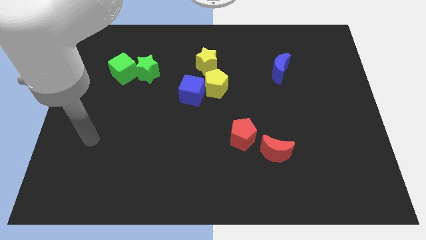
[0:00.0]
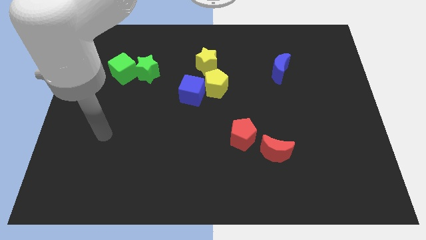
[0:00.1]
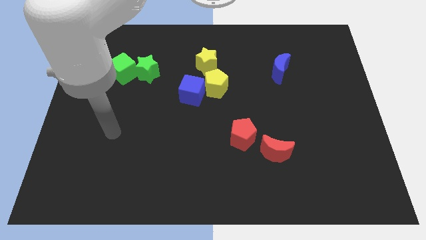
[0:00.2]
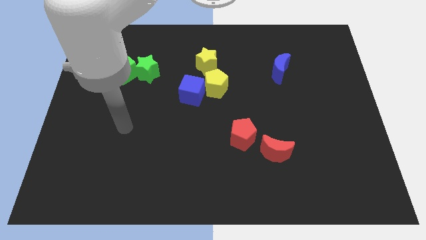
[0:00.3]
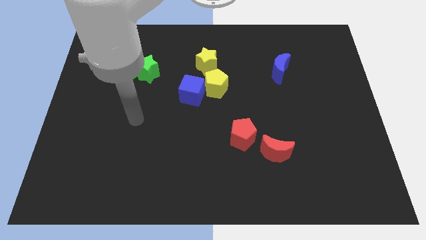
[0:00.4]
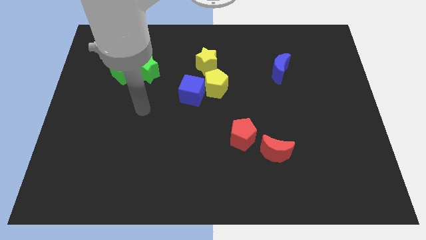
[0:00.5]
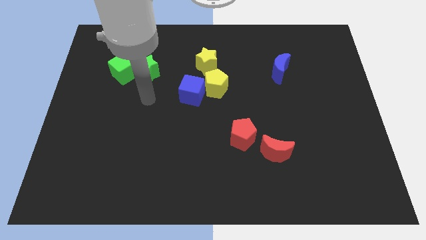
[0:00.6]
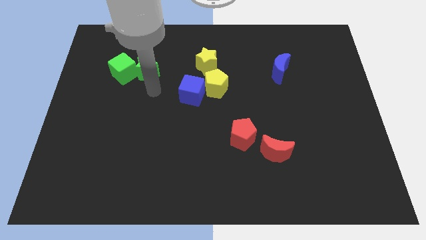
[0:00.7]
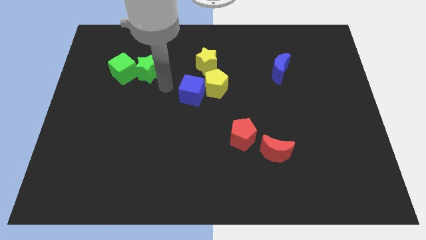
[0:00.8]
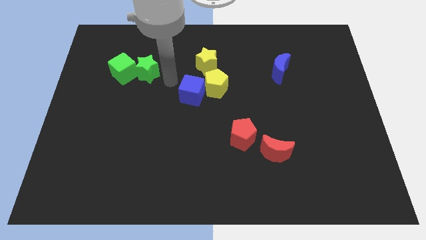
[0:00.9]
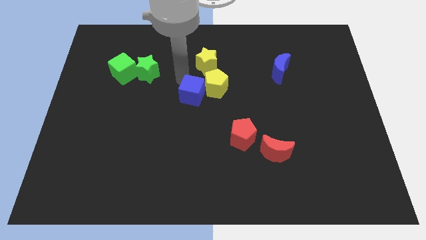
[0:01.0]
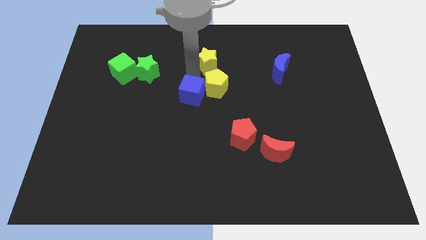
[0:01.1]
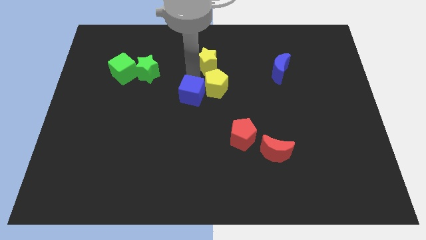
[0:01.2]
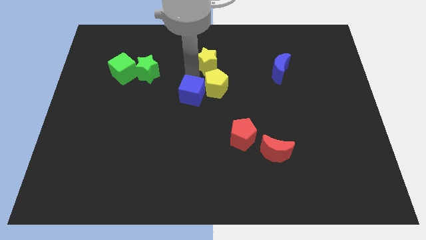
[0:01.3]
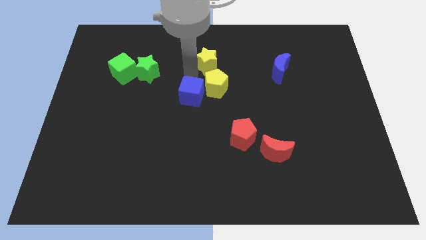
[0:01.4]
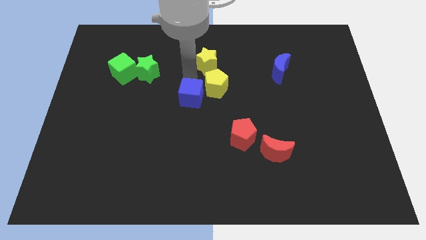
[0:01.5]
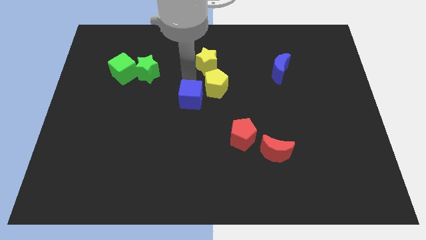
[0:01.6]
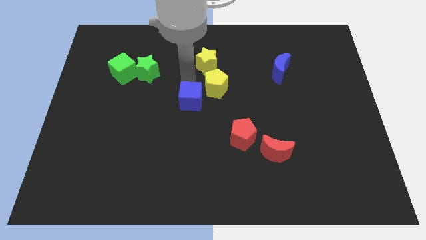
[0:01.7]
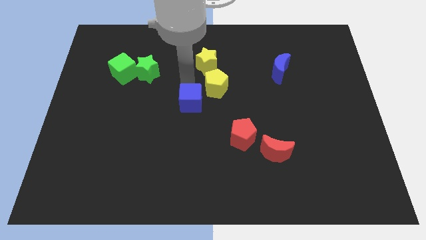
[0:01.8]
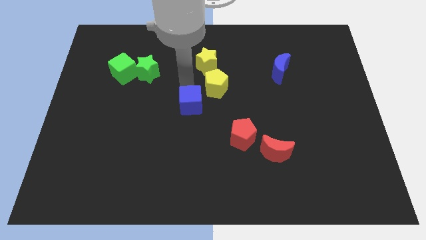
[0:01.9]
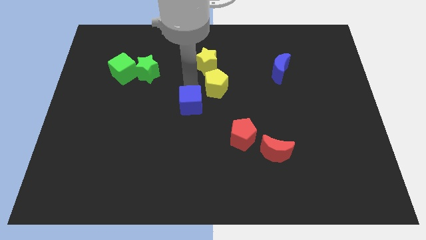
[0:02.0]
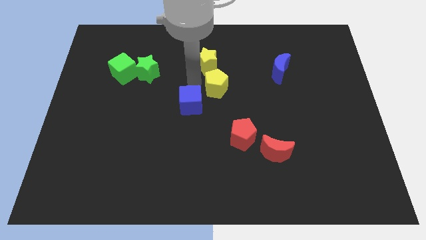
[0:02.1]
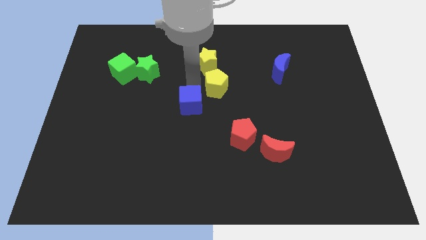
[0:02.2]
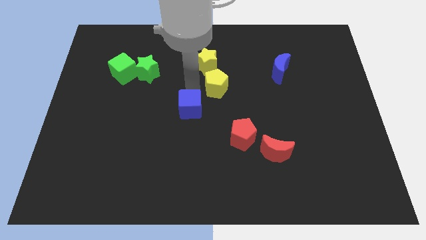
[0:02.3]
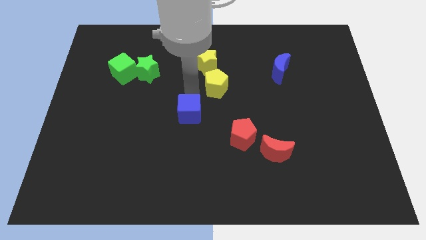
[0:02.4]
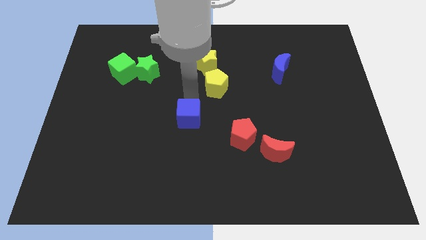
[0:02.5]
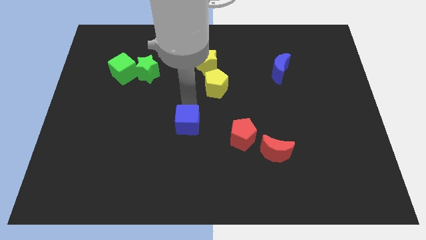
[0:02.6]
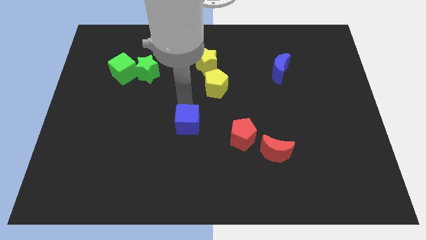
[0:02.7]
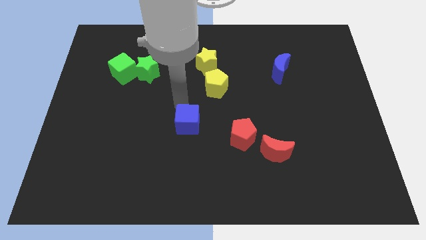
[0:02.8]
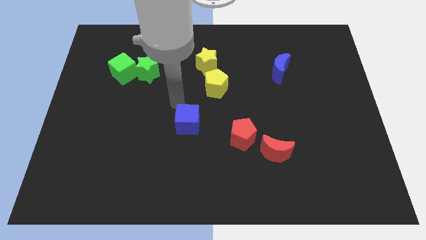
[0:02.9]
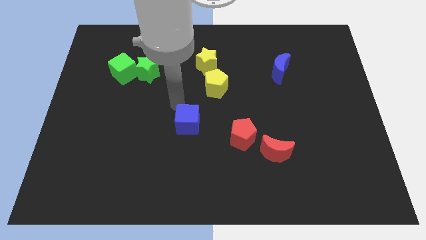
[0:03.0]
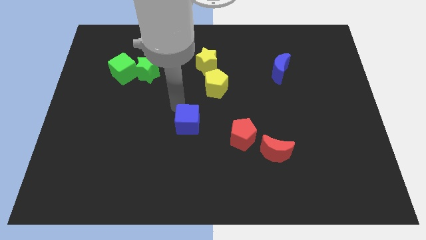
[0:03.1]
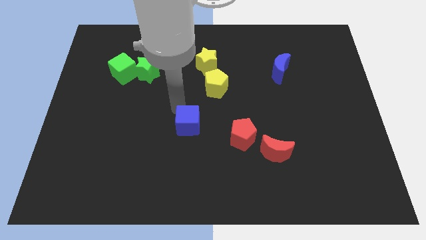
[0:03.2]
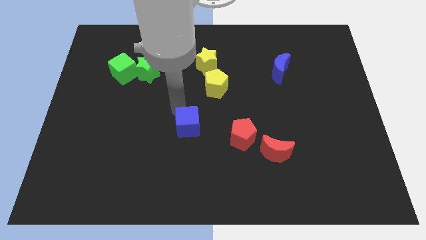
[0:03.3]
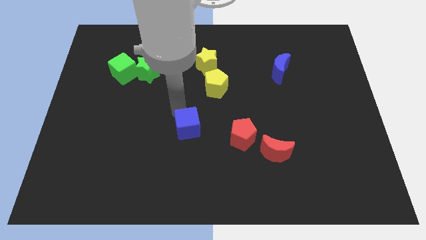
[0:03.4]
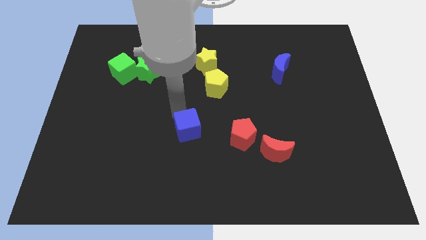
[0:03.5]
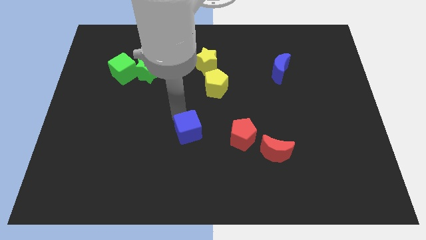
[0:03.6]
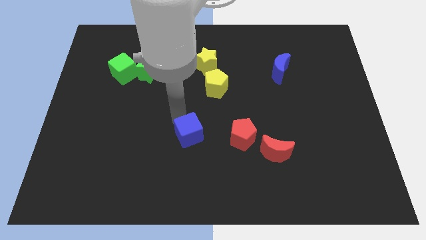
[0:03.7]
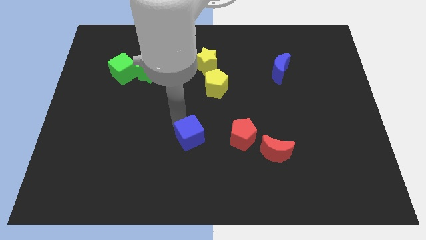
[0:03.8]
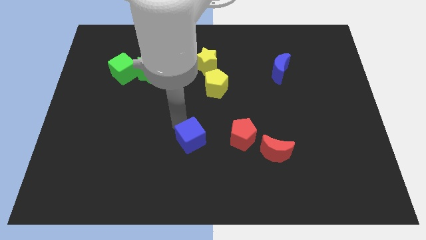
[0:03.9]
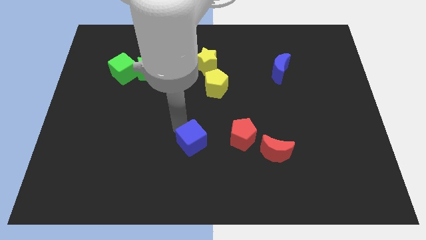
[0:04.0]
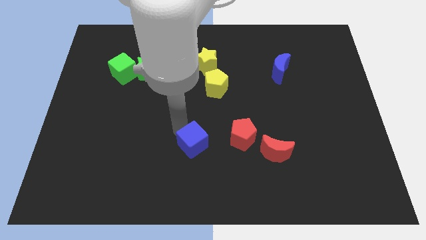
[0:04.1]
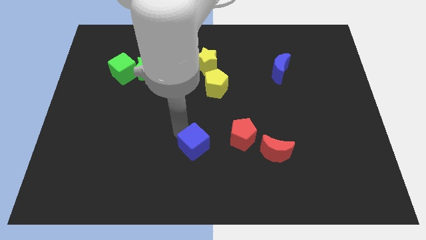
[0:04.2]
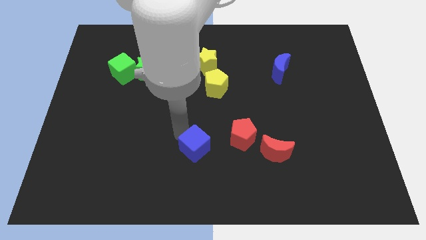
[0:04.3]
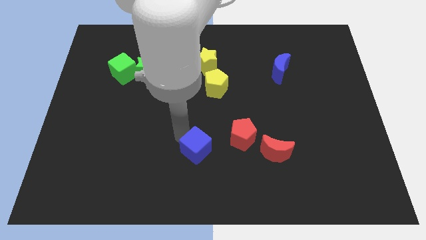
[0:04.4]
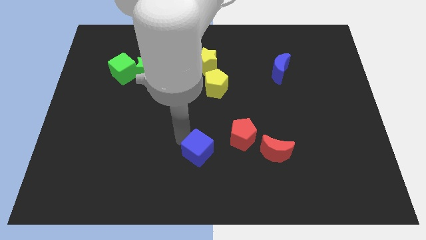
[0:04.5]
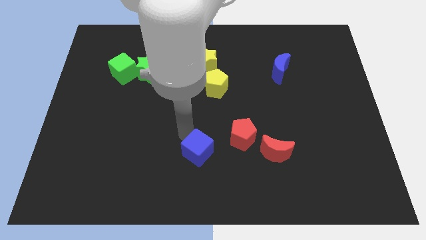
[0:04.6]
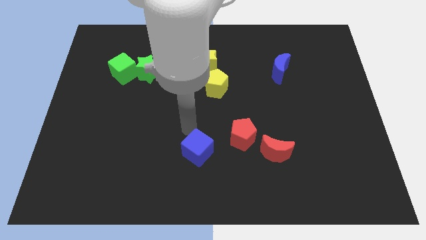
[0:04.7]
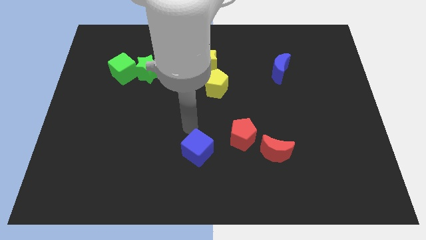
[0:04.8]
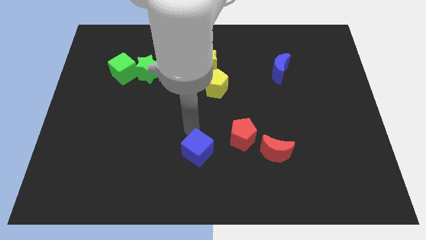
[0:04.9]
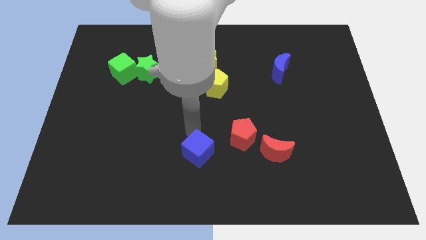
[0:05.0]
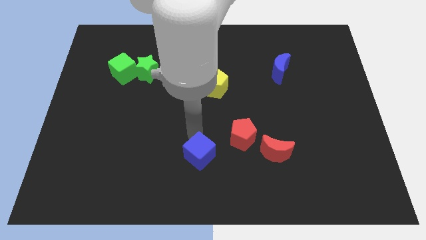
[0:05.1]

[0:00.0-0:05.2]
slide the blue cube to the bottom

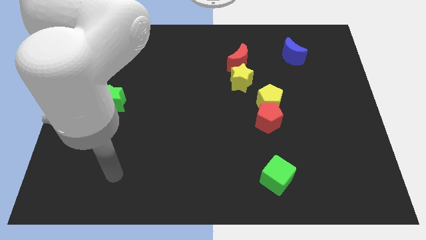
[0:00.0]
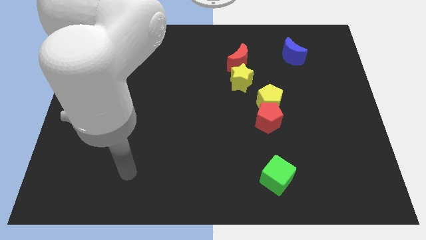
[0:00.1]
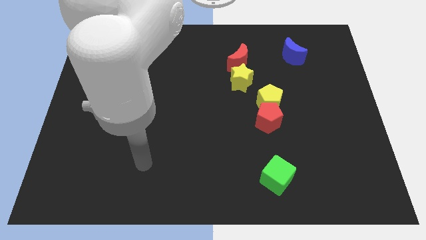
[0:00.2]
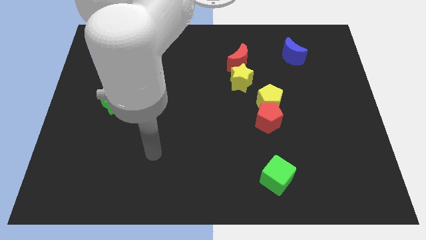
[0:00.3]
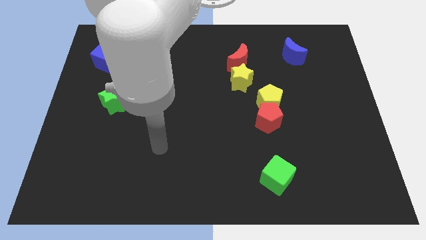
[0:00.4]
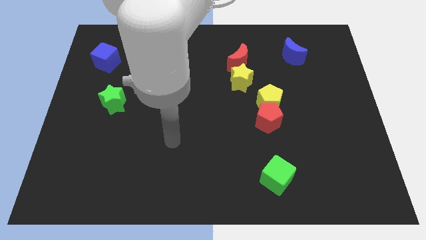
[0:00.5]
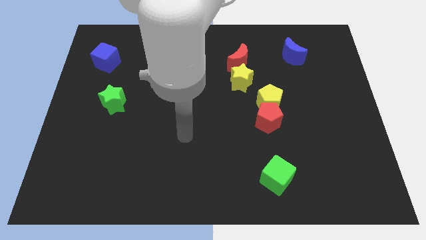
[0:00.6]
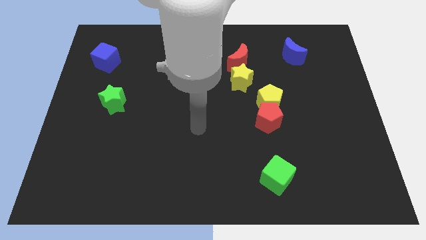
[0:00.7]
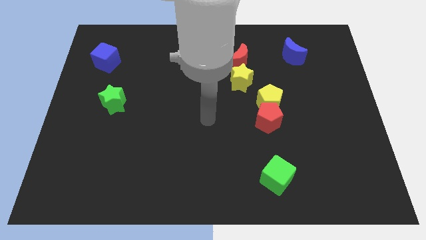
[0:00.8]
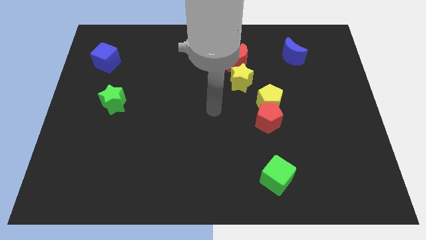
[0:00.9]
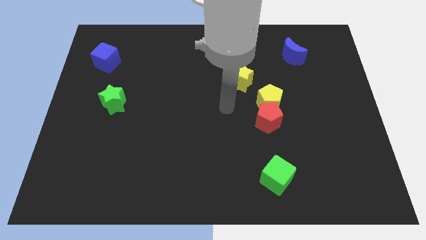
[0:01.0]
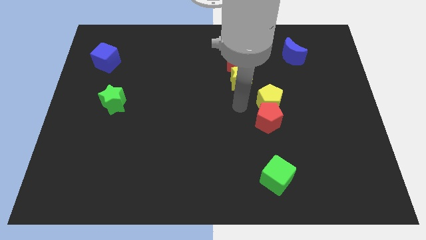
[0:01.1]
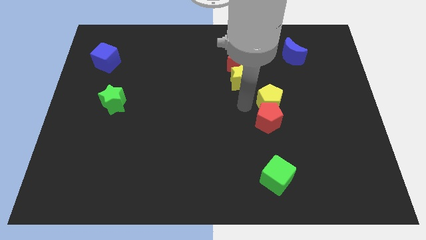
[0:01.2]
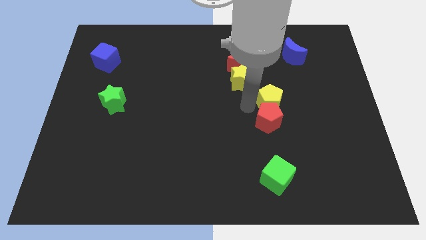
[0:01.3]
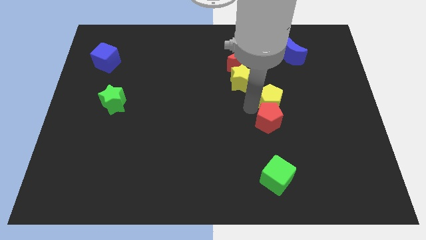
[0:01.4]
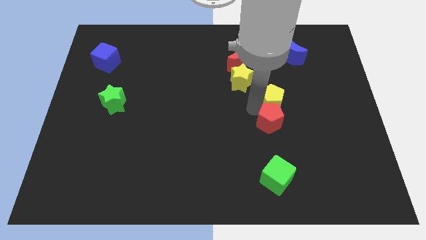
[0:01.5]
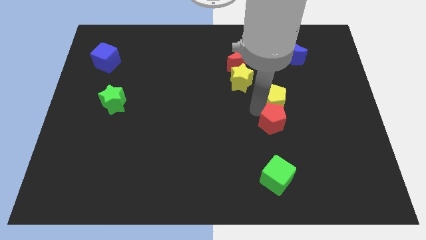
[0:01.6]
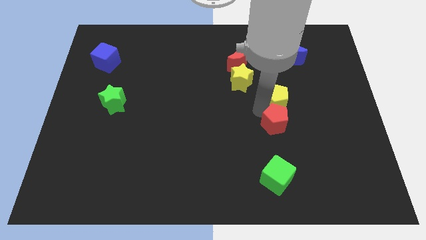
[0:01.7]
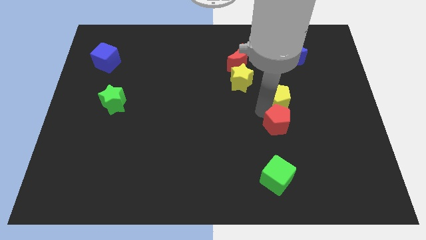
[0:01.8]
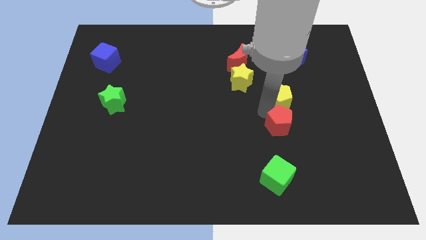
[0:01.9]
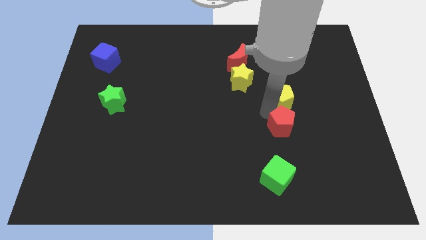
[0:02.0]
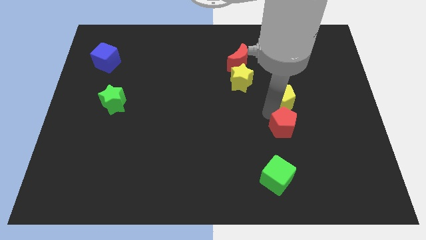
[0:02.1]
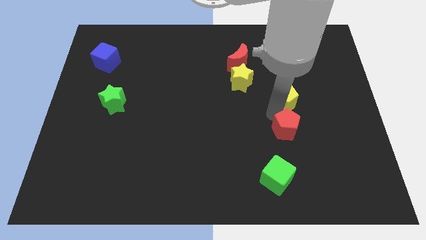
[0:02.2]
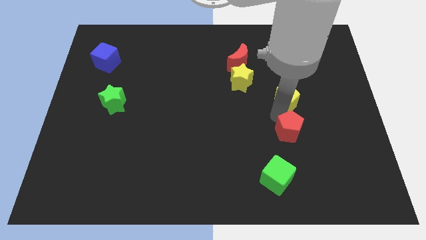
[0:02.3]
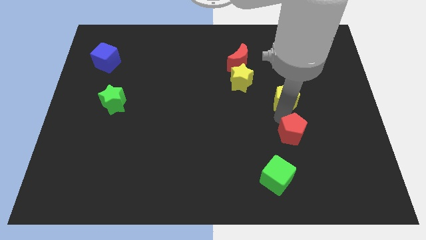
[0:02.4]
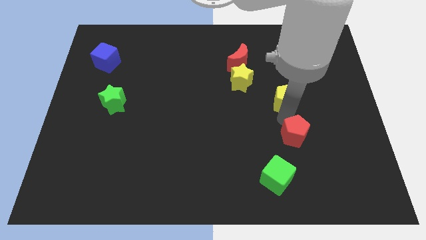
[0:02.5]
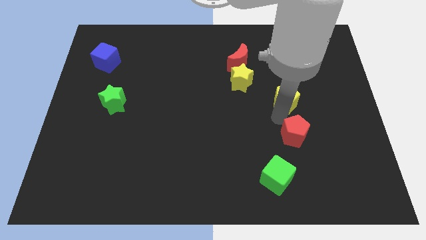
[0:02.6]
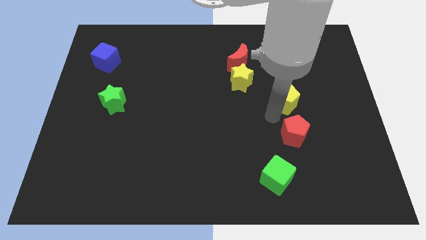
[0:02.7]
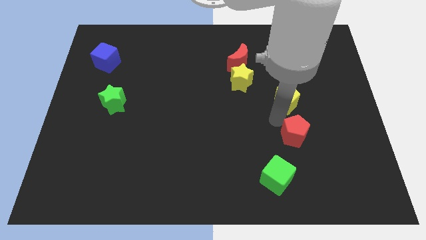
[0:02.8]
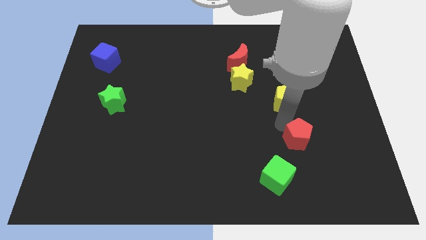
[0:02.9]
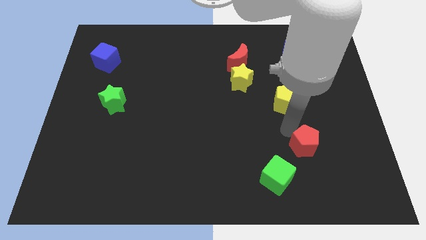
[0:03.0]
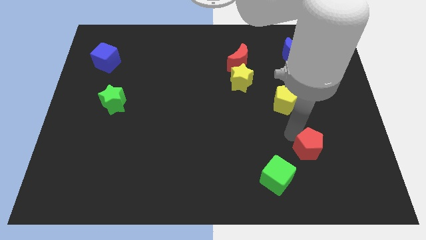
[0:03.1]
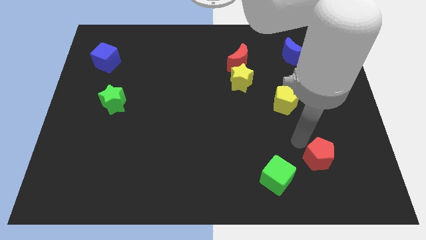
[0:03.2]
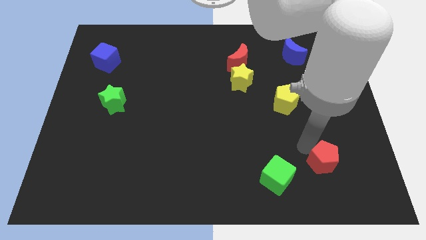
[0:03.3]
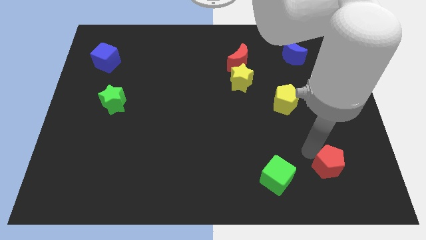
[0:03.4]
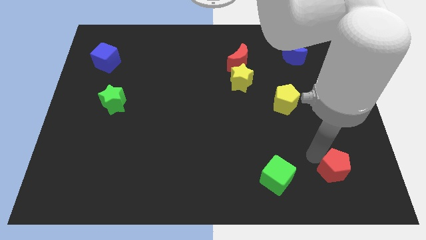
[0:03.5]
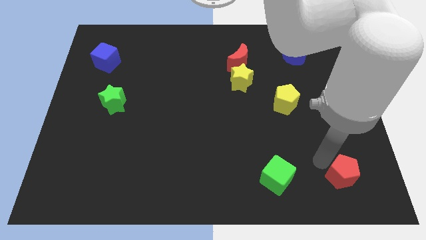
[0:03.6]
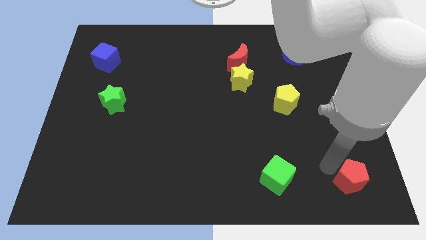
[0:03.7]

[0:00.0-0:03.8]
slide the red pentagon to the bottom right
